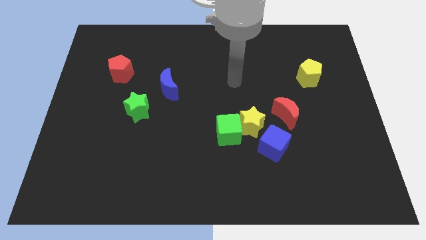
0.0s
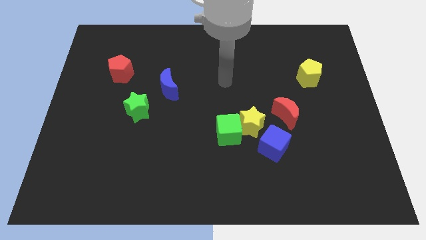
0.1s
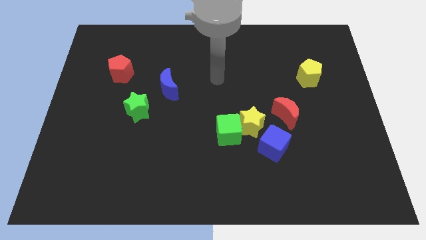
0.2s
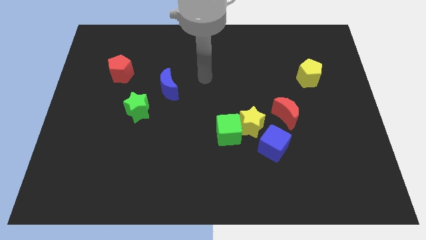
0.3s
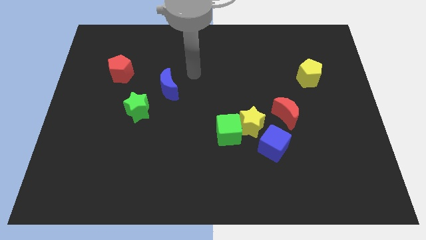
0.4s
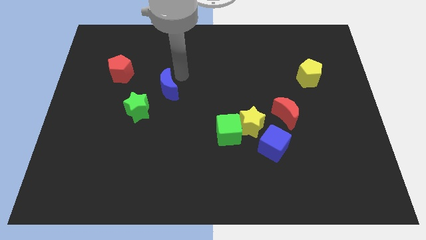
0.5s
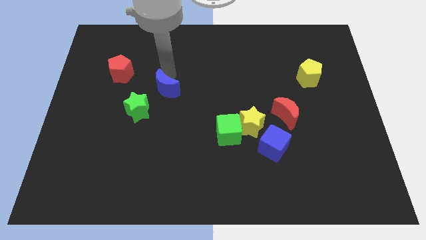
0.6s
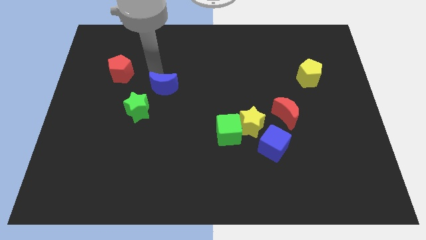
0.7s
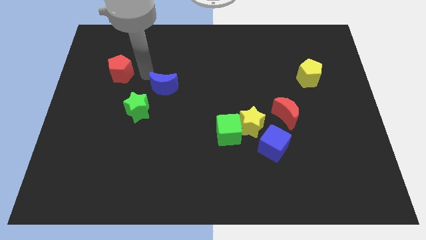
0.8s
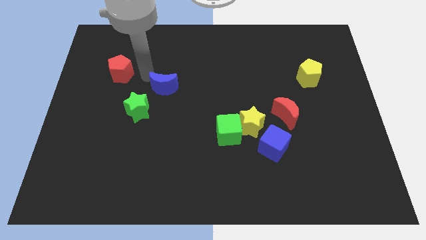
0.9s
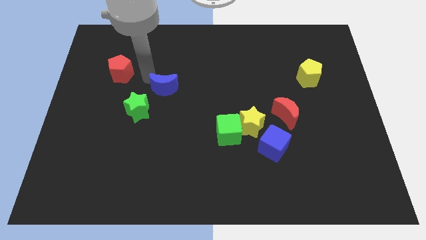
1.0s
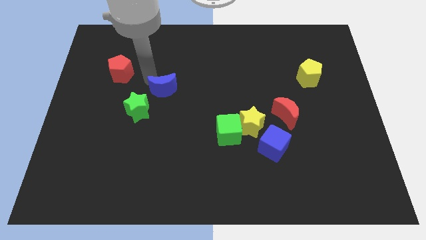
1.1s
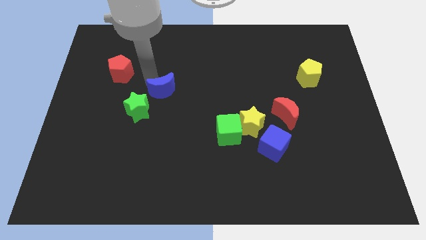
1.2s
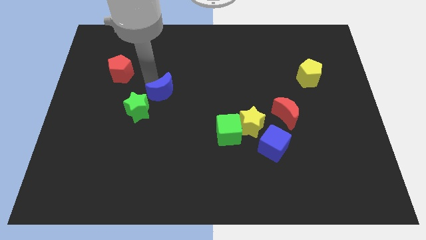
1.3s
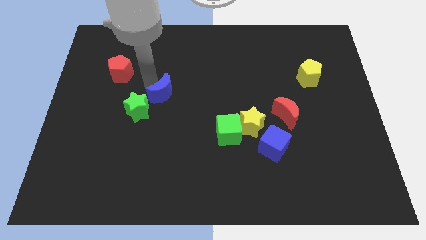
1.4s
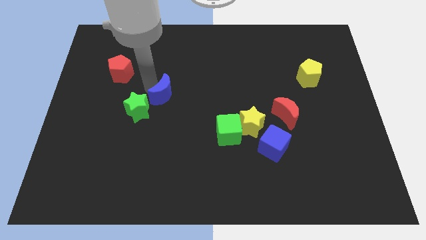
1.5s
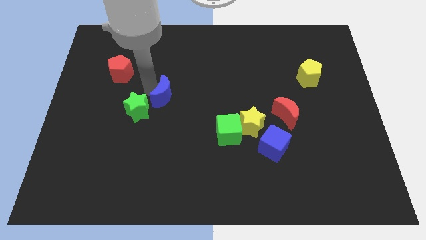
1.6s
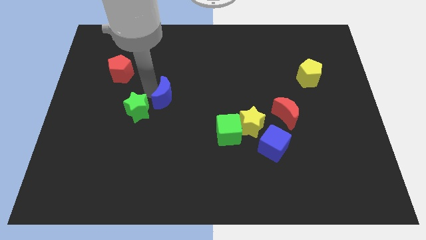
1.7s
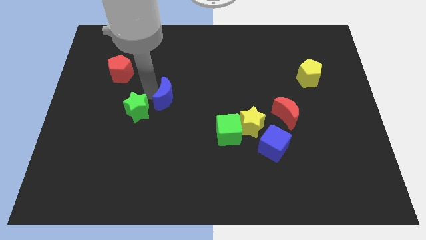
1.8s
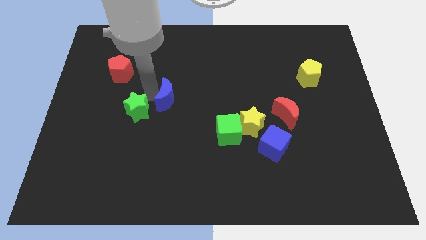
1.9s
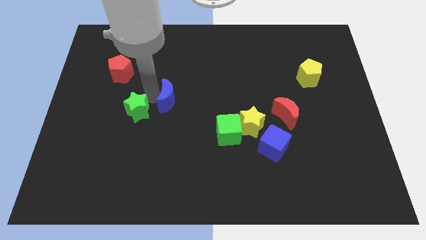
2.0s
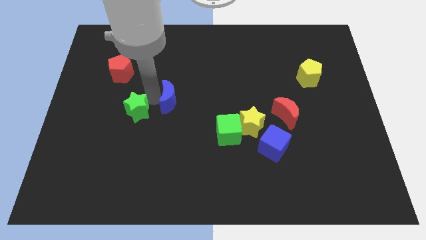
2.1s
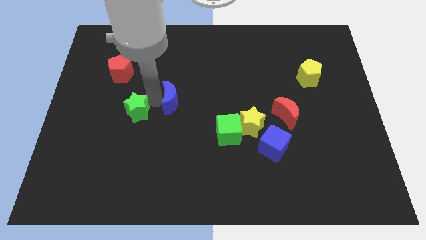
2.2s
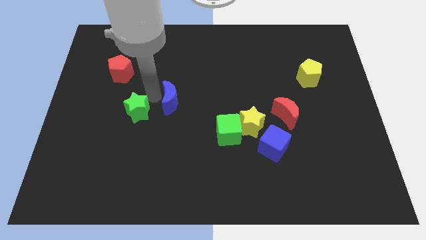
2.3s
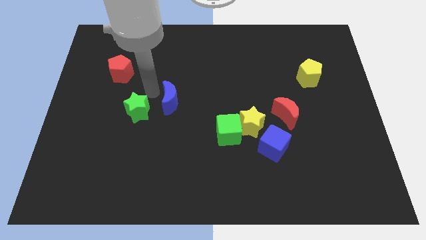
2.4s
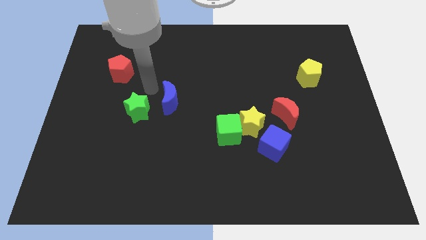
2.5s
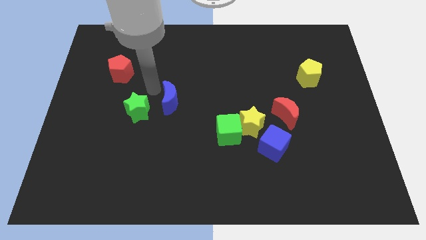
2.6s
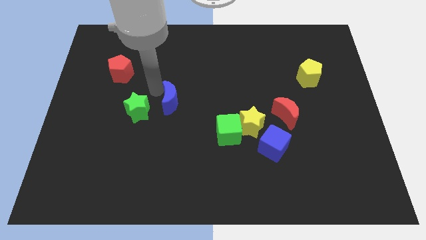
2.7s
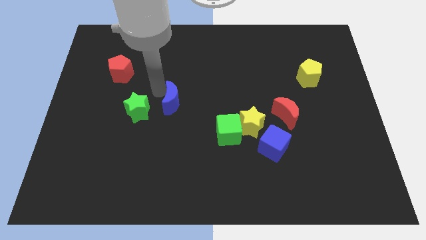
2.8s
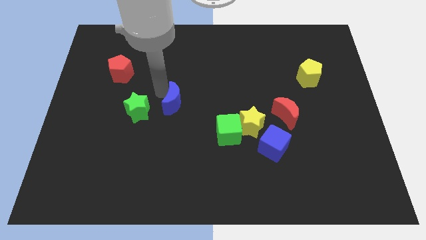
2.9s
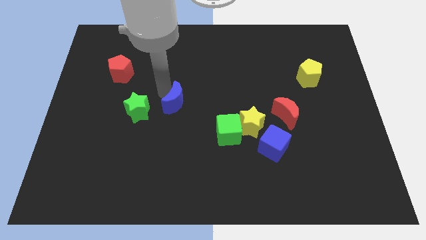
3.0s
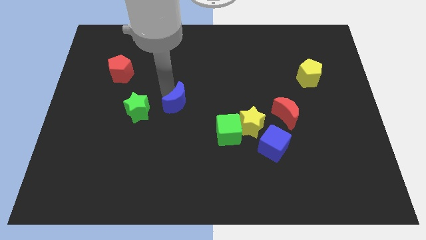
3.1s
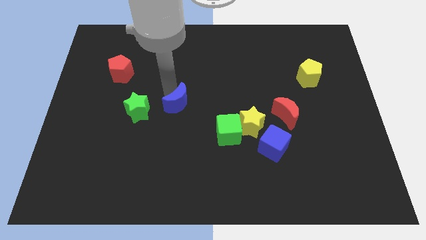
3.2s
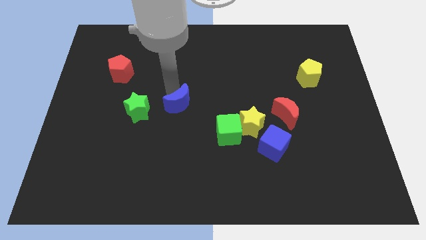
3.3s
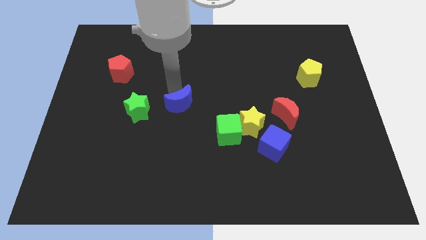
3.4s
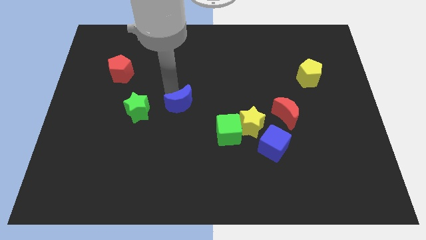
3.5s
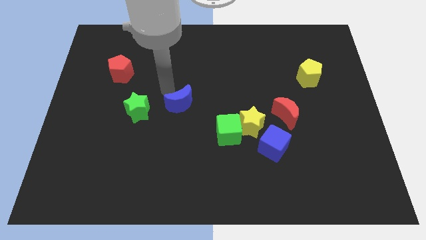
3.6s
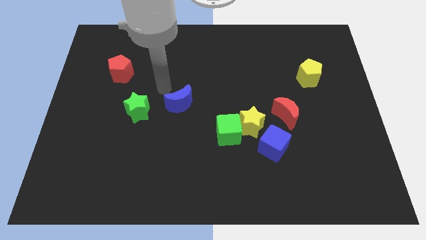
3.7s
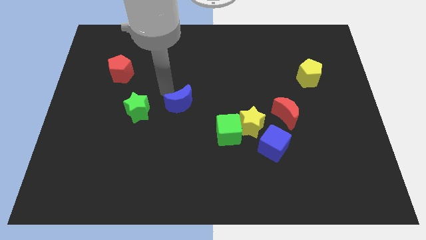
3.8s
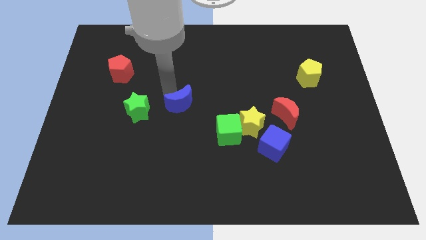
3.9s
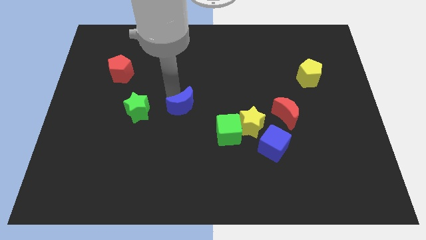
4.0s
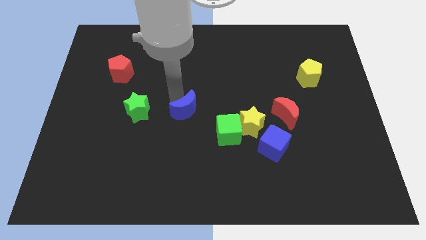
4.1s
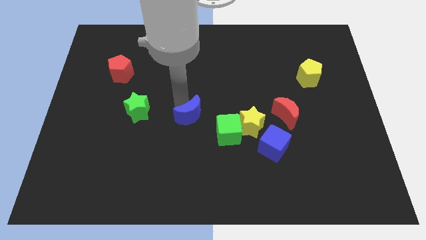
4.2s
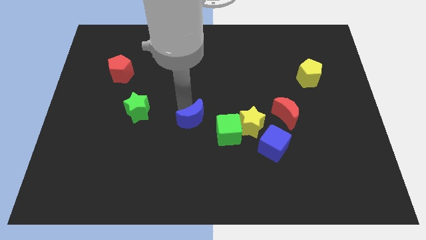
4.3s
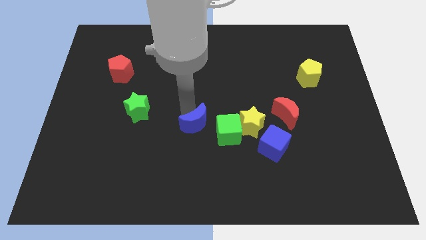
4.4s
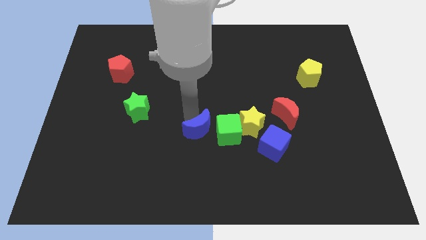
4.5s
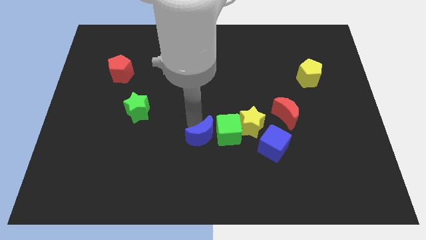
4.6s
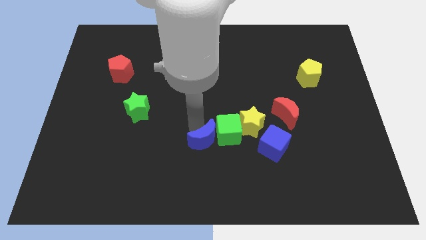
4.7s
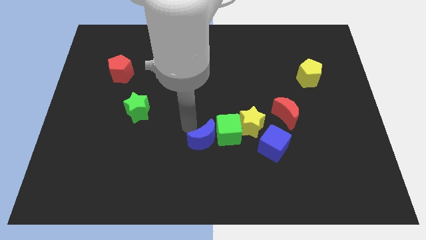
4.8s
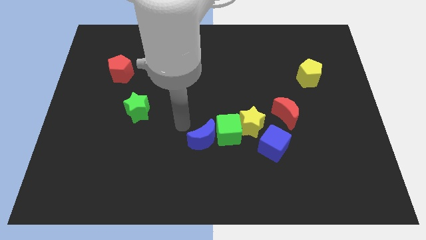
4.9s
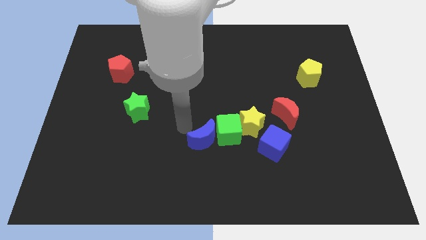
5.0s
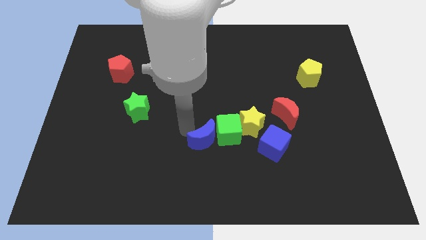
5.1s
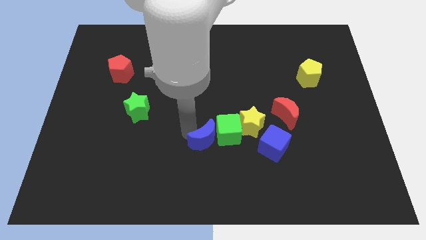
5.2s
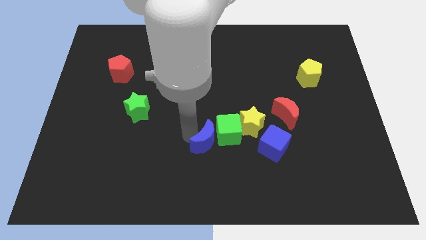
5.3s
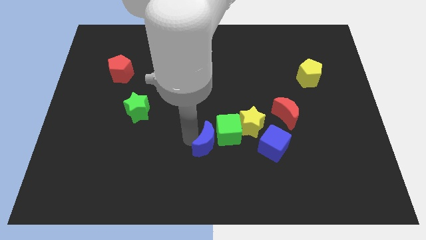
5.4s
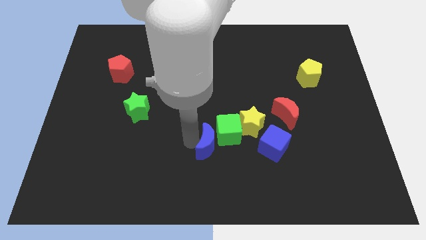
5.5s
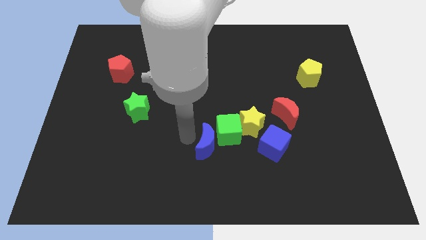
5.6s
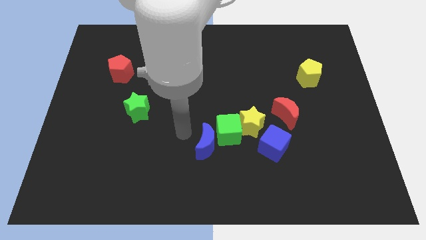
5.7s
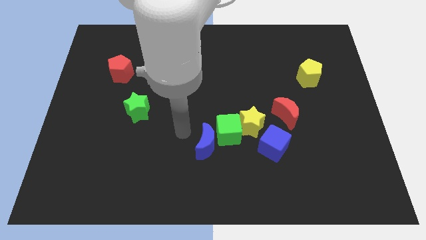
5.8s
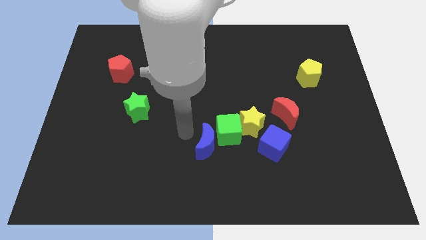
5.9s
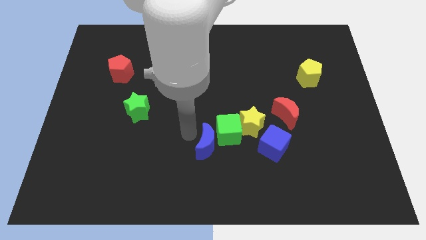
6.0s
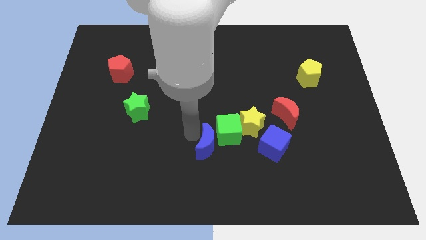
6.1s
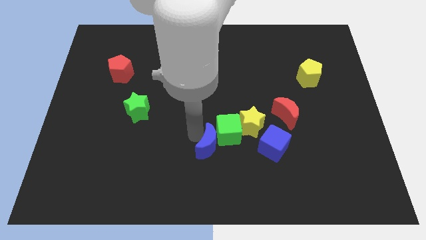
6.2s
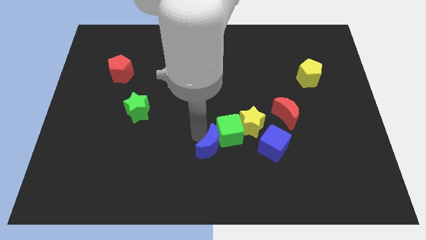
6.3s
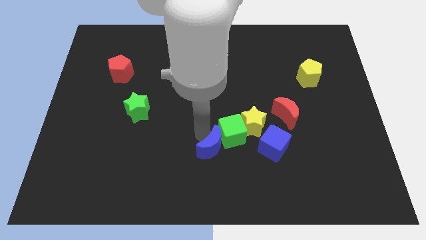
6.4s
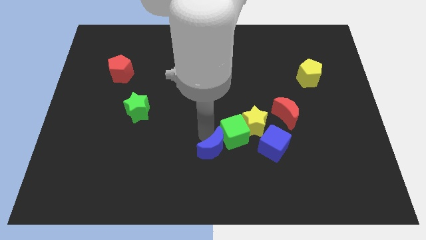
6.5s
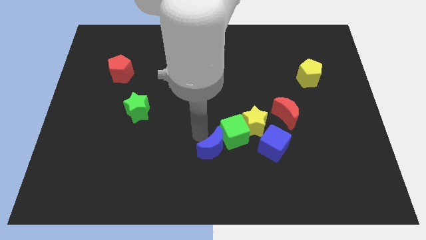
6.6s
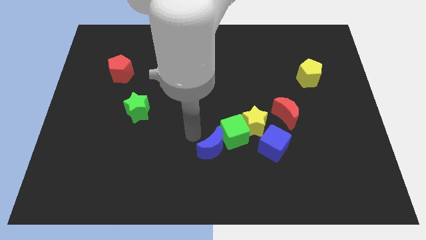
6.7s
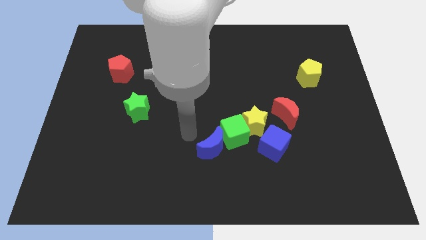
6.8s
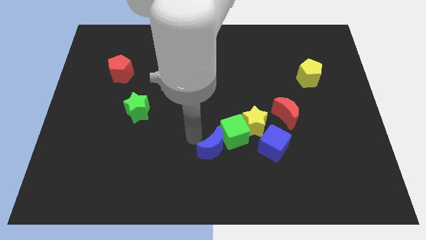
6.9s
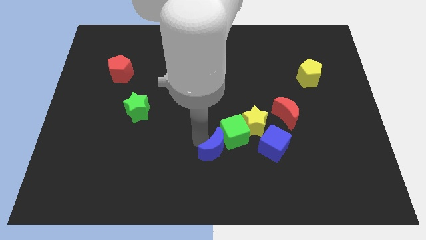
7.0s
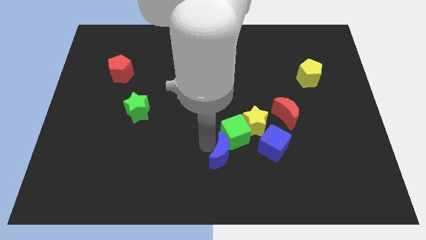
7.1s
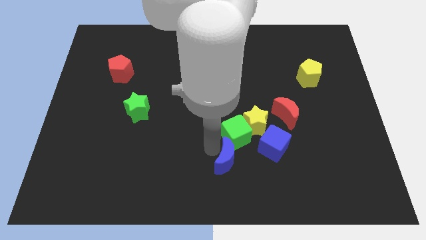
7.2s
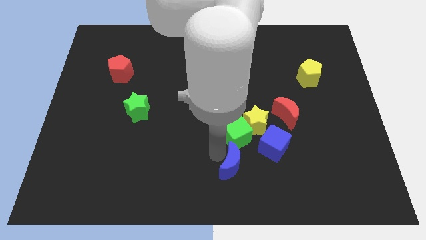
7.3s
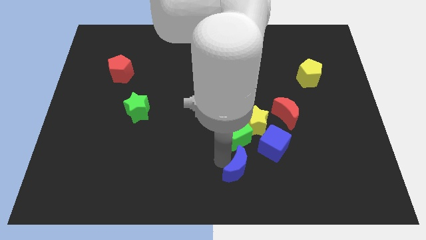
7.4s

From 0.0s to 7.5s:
push the blue moon below the yellow star

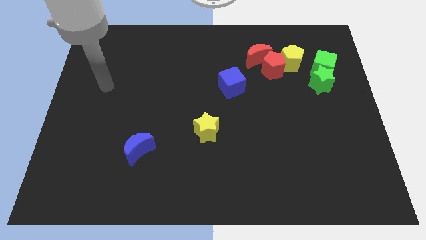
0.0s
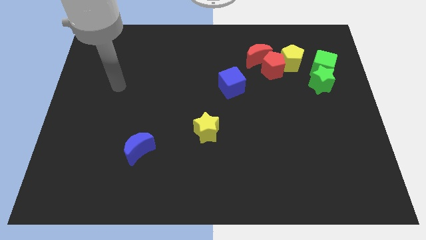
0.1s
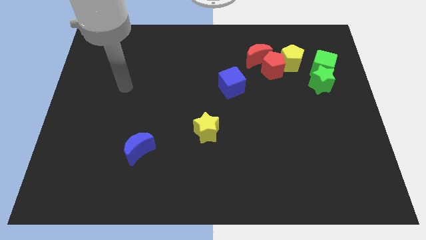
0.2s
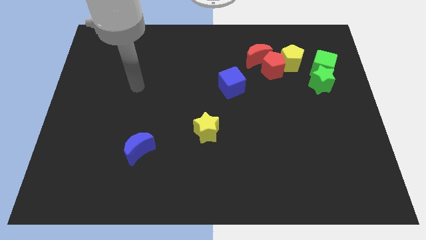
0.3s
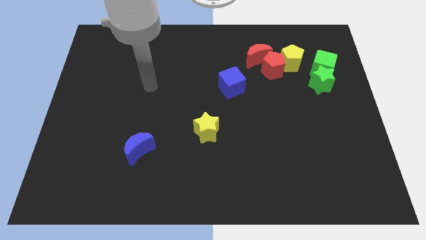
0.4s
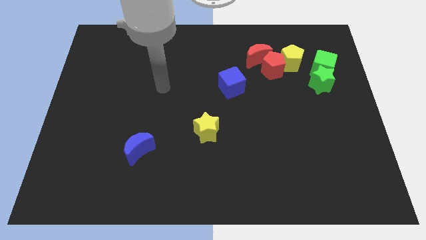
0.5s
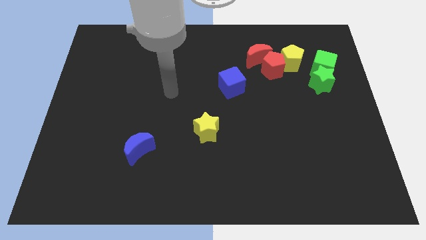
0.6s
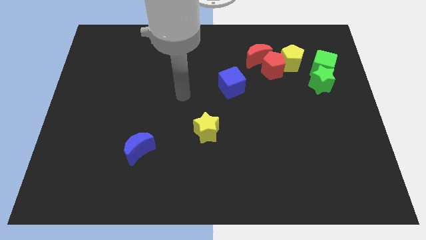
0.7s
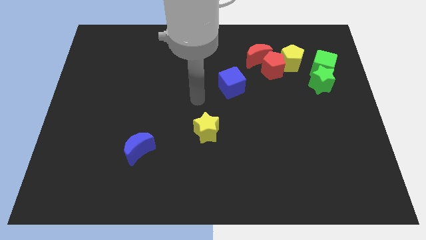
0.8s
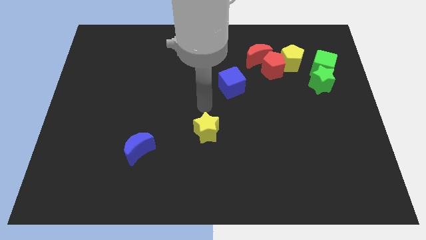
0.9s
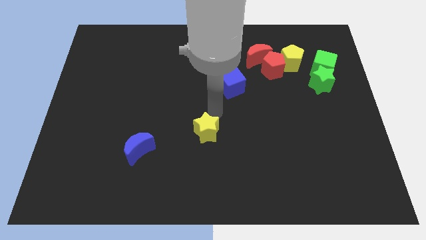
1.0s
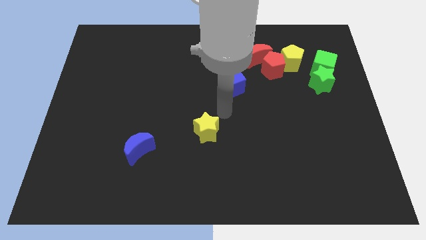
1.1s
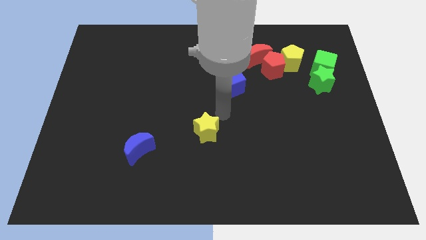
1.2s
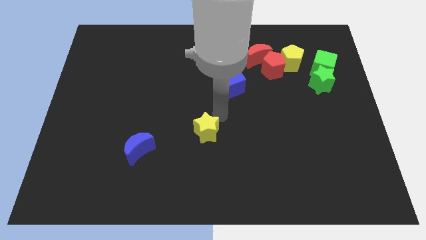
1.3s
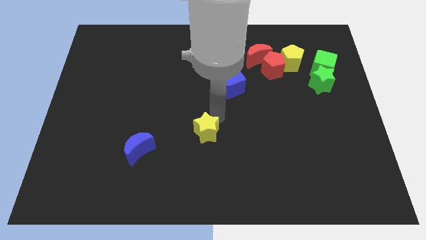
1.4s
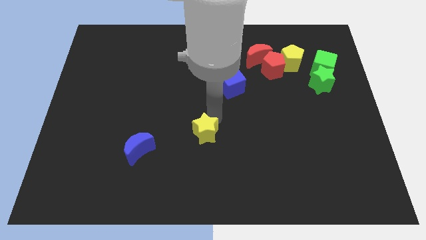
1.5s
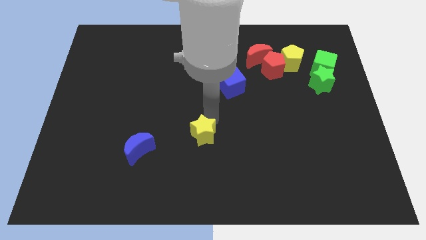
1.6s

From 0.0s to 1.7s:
slide the yellow star to the right side of the blue moon
